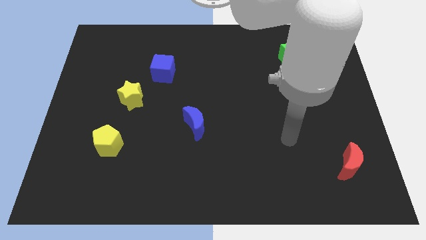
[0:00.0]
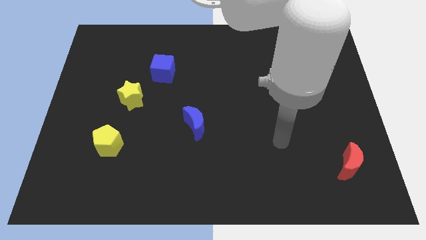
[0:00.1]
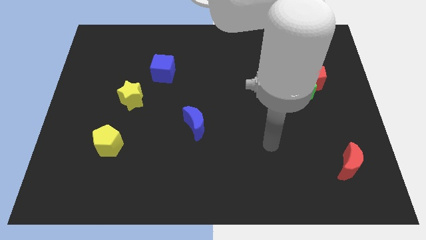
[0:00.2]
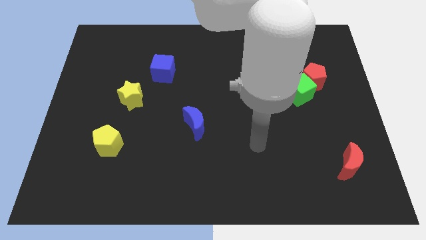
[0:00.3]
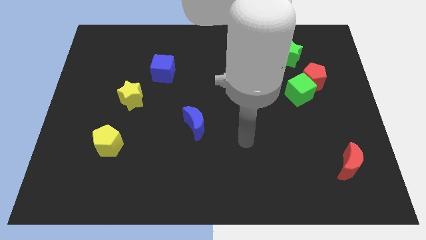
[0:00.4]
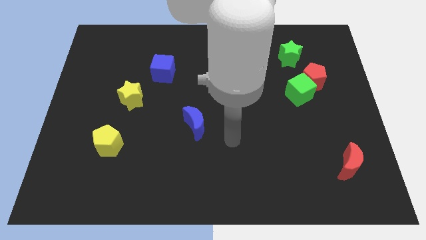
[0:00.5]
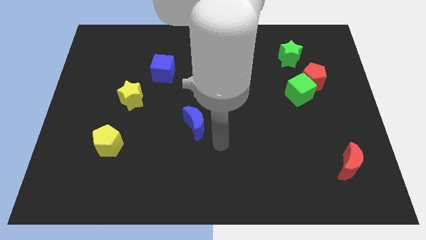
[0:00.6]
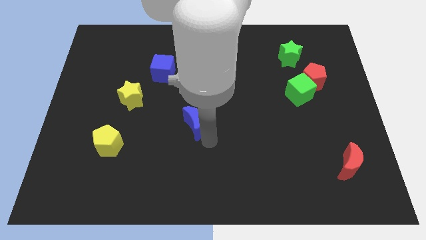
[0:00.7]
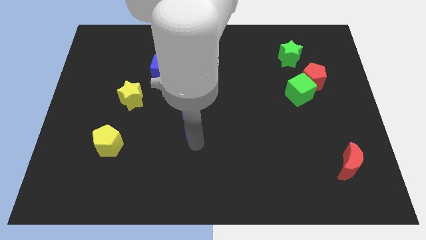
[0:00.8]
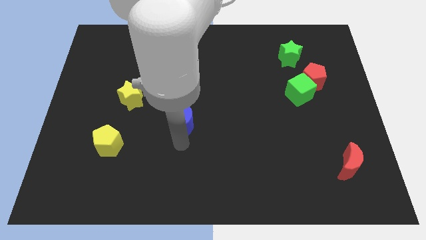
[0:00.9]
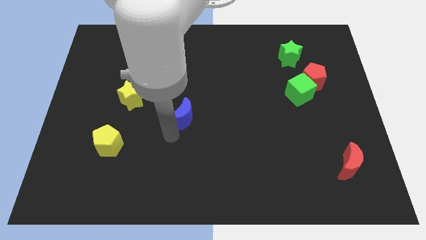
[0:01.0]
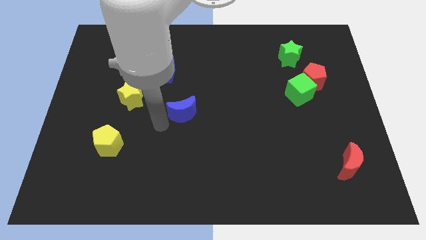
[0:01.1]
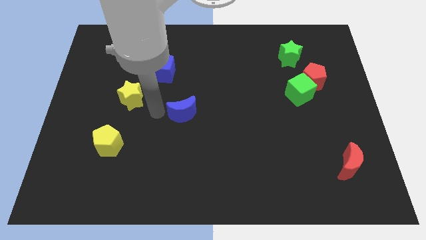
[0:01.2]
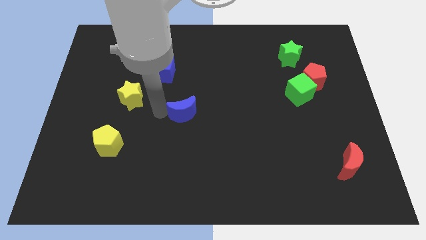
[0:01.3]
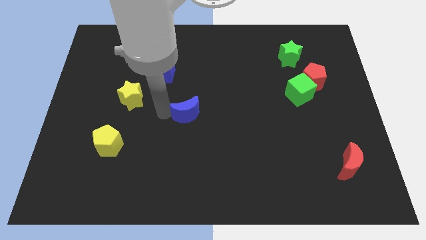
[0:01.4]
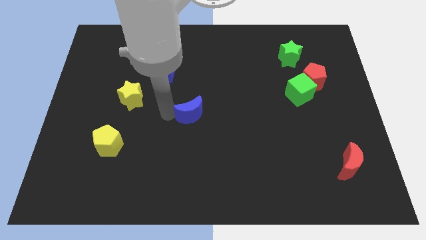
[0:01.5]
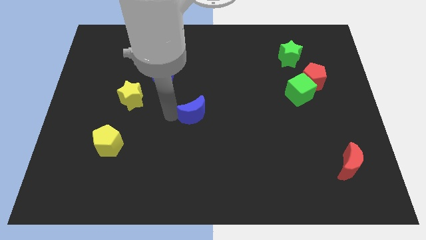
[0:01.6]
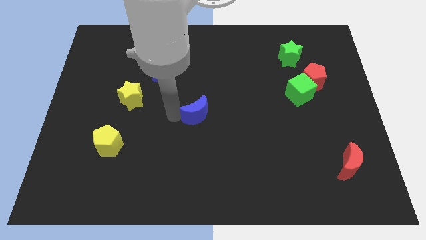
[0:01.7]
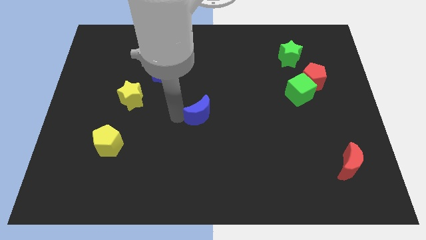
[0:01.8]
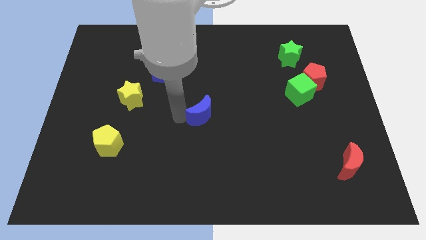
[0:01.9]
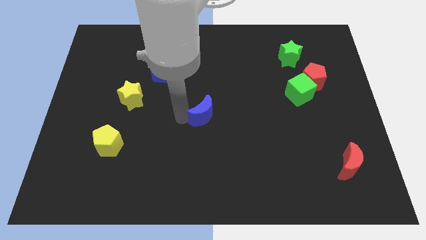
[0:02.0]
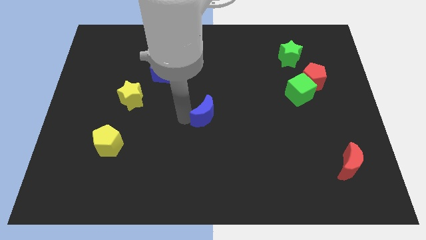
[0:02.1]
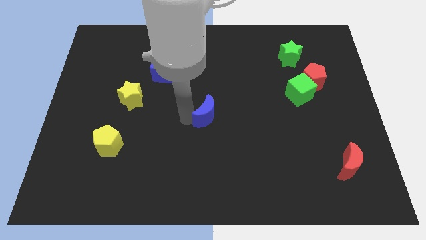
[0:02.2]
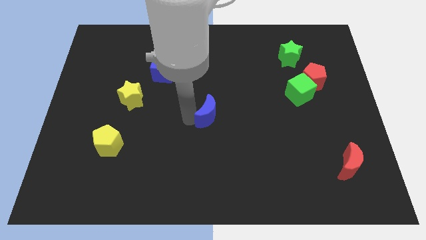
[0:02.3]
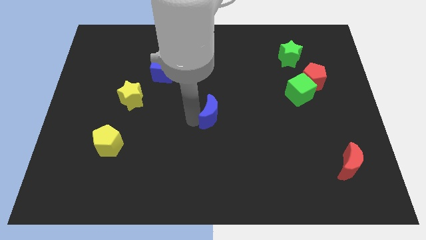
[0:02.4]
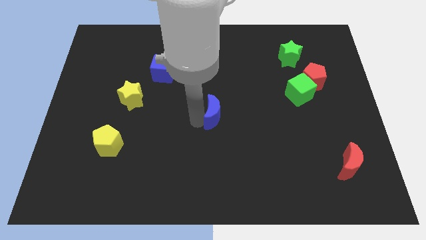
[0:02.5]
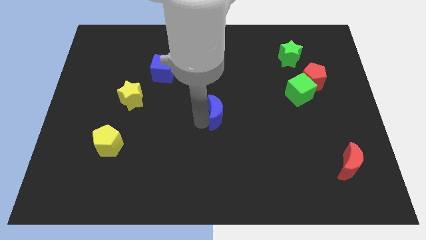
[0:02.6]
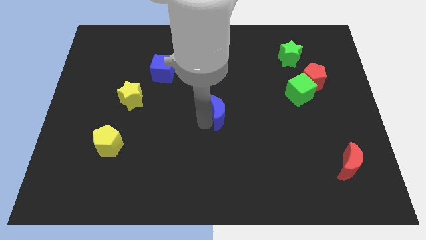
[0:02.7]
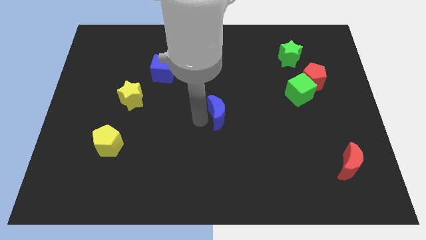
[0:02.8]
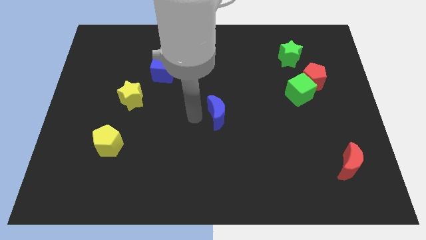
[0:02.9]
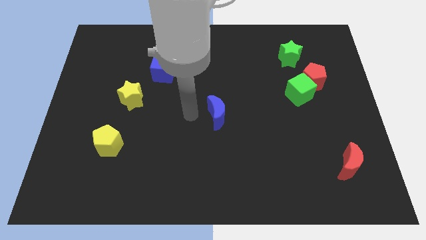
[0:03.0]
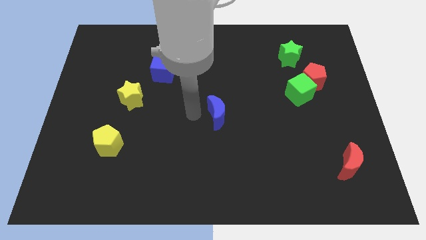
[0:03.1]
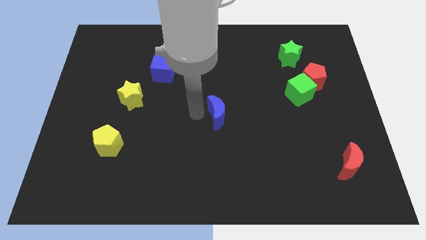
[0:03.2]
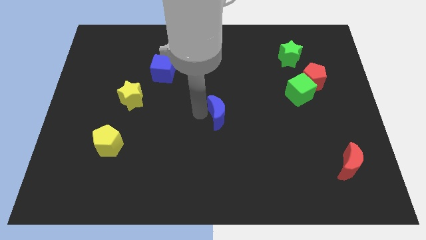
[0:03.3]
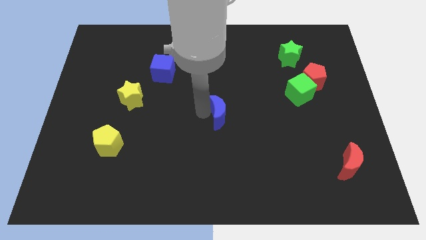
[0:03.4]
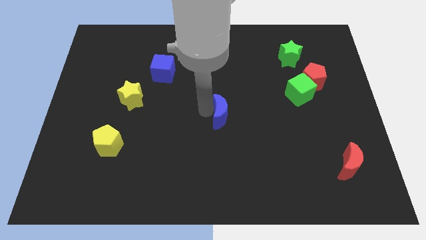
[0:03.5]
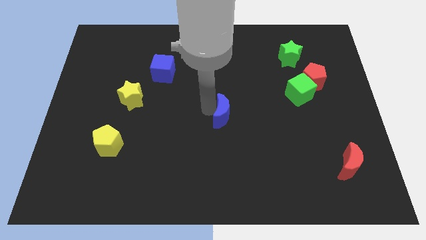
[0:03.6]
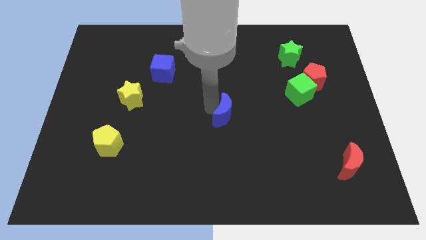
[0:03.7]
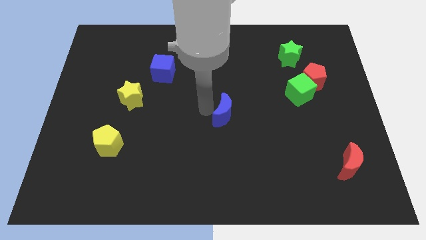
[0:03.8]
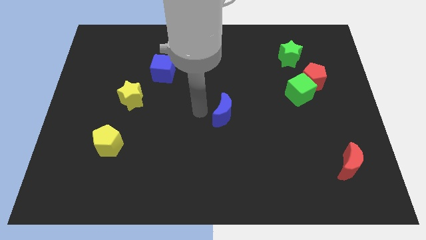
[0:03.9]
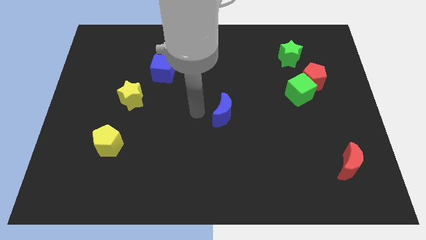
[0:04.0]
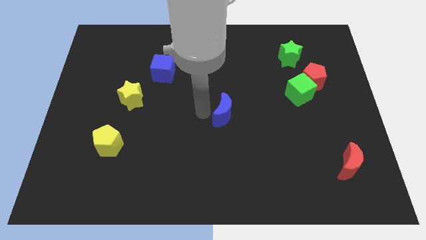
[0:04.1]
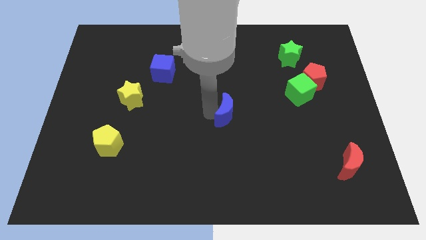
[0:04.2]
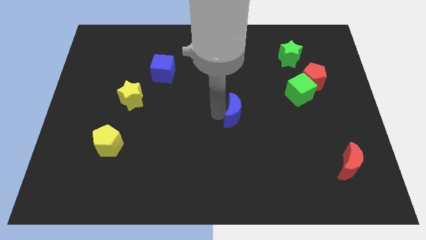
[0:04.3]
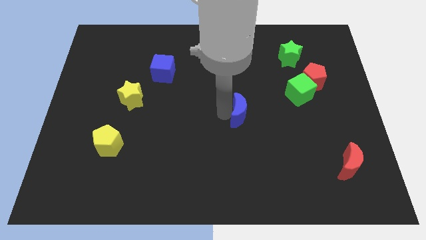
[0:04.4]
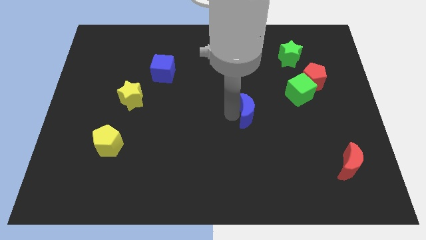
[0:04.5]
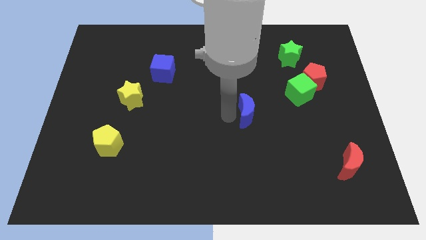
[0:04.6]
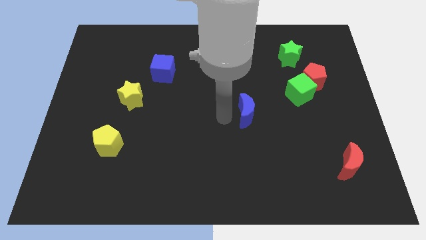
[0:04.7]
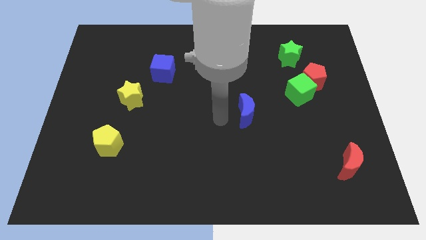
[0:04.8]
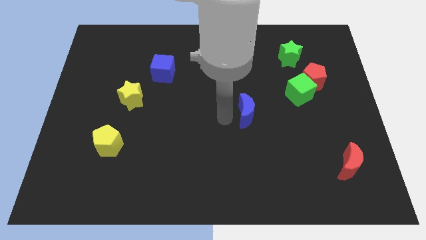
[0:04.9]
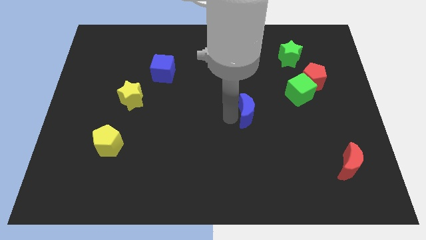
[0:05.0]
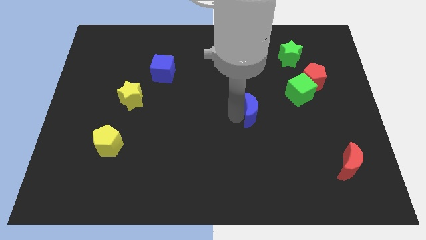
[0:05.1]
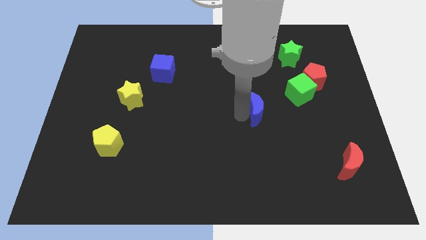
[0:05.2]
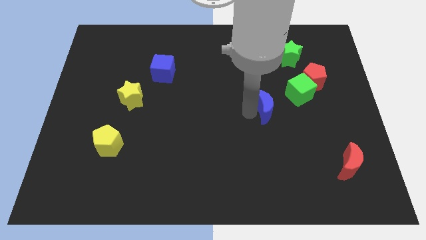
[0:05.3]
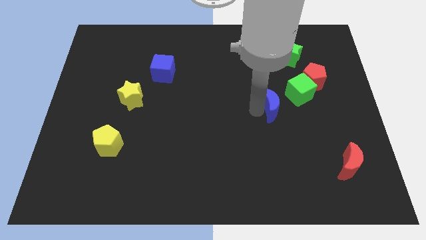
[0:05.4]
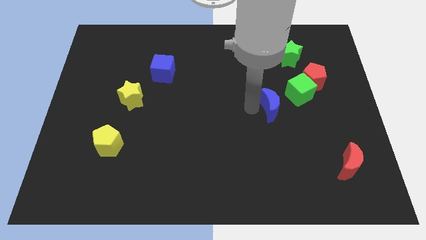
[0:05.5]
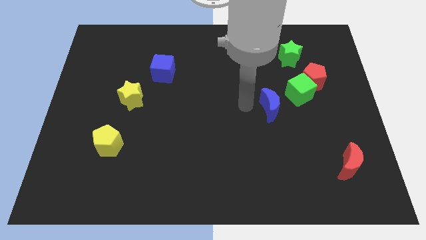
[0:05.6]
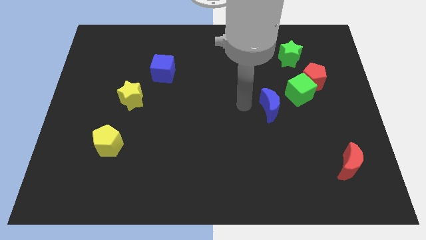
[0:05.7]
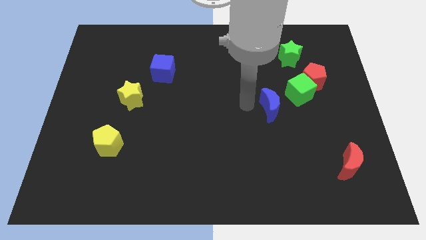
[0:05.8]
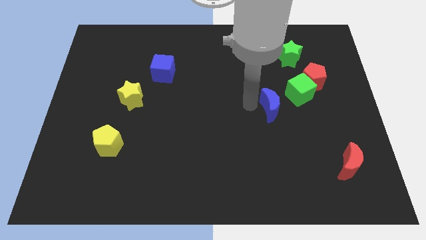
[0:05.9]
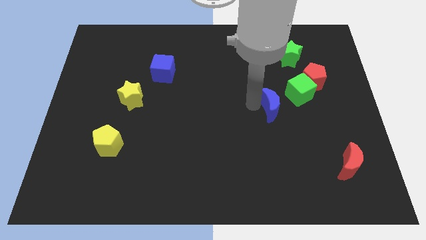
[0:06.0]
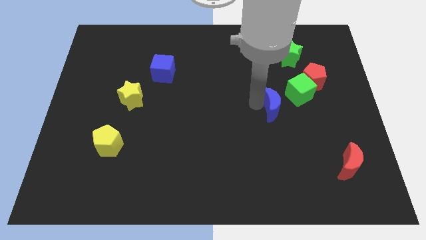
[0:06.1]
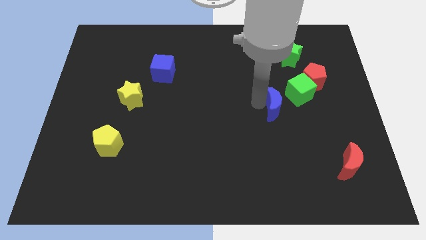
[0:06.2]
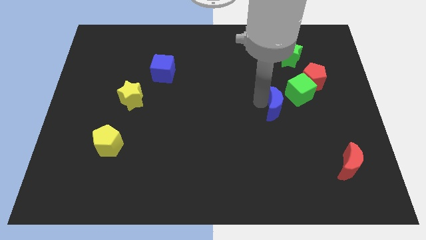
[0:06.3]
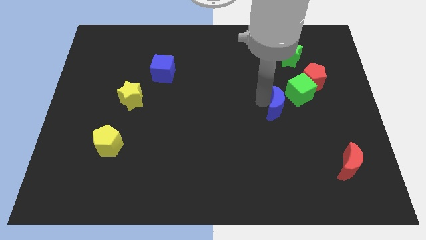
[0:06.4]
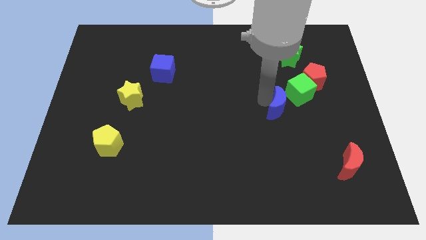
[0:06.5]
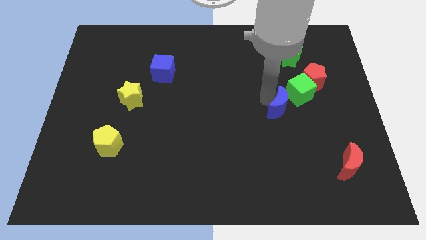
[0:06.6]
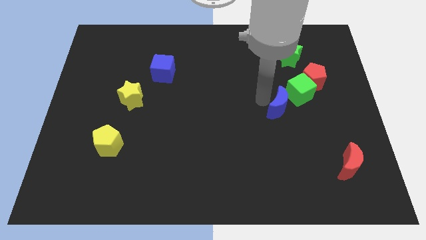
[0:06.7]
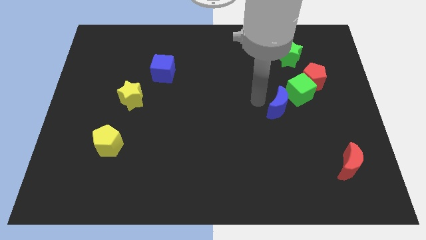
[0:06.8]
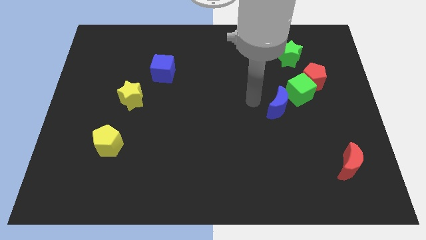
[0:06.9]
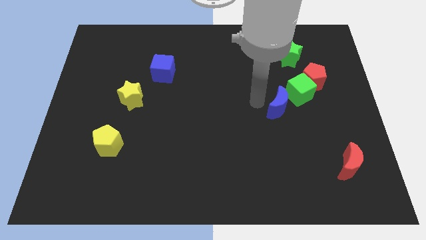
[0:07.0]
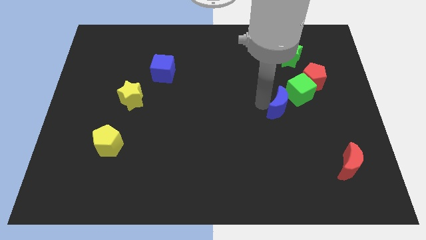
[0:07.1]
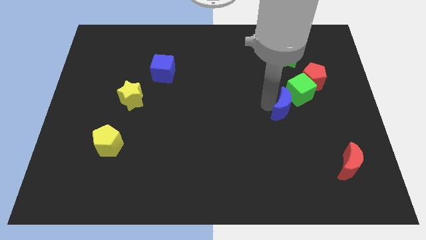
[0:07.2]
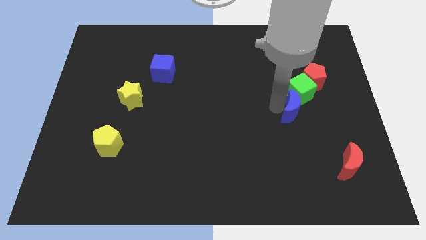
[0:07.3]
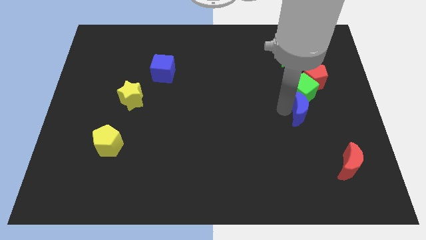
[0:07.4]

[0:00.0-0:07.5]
slide the blue moon to the bottom of the red pentagon

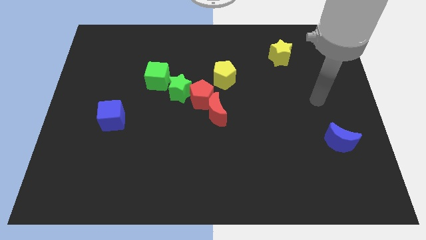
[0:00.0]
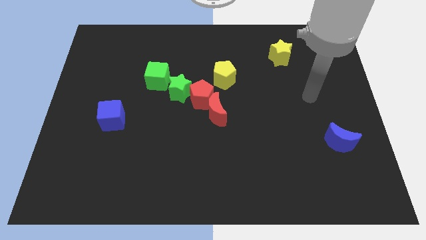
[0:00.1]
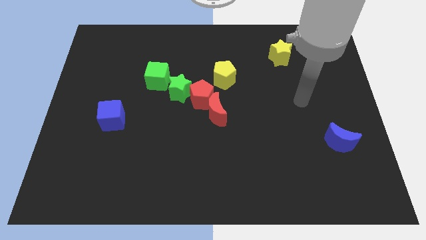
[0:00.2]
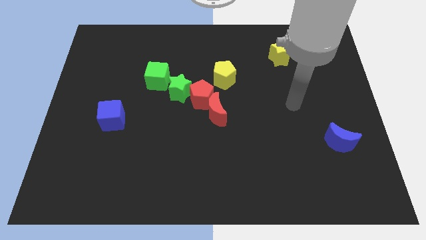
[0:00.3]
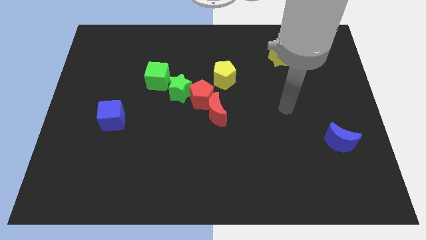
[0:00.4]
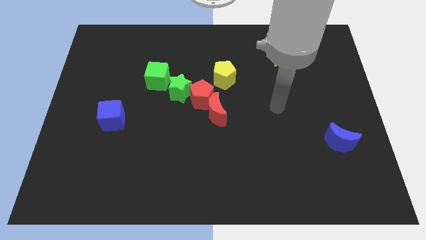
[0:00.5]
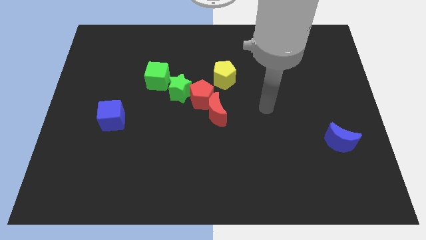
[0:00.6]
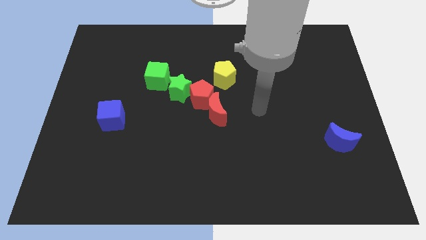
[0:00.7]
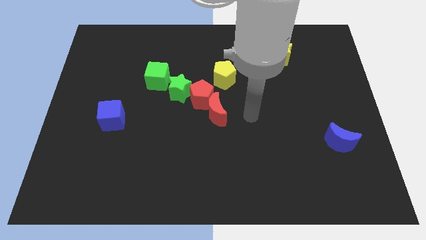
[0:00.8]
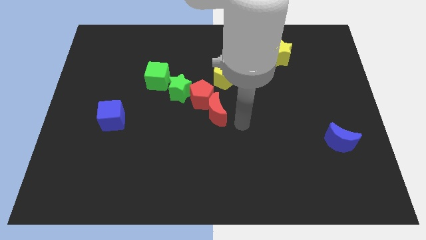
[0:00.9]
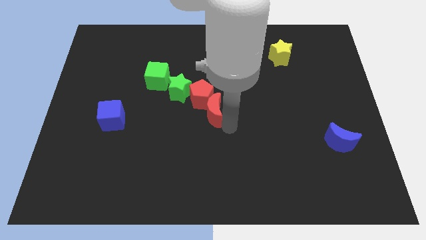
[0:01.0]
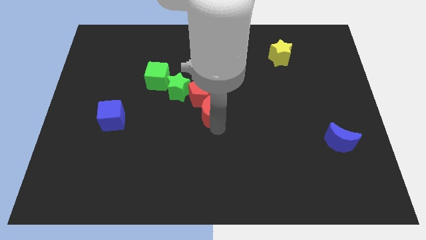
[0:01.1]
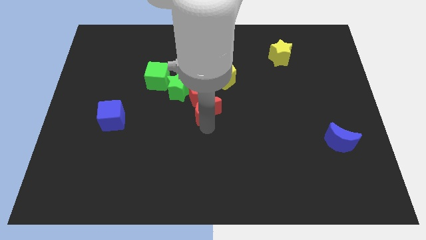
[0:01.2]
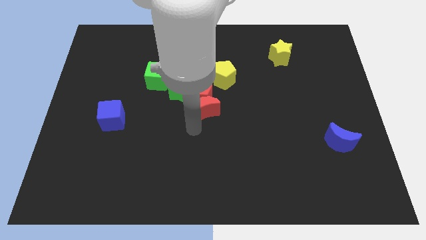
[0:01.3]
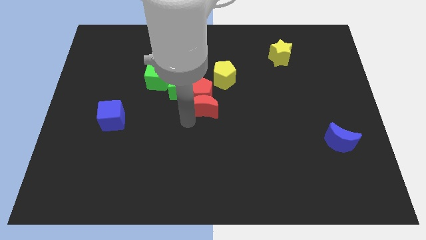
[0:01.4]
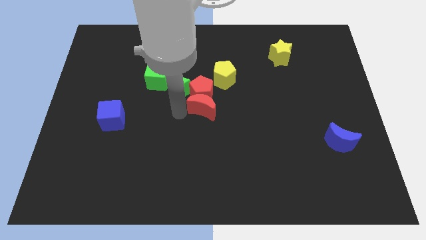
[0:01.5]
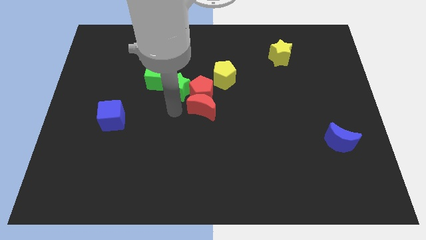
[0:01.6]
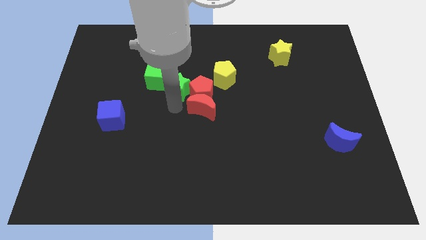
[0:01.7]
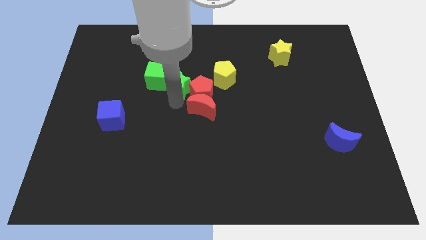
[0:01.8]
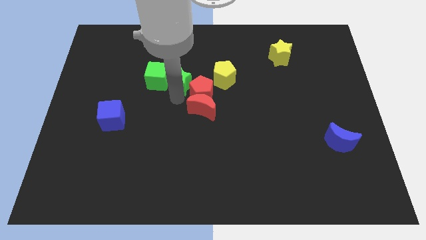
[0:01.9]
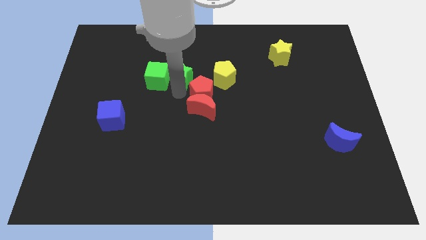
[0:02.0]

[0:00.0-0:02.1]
slide the green star diagonally up and to the right of the green cube
